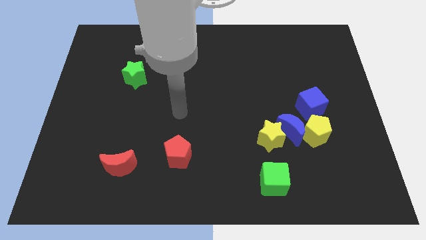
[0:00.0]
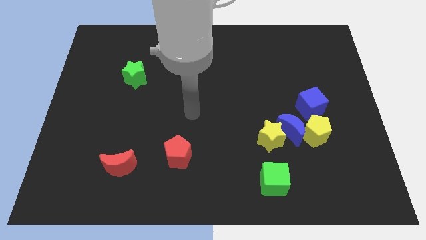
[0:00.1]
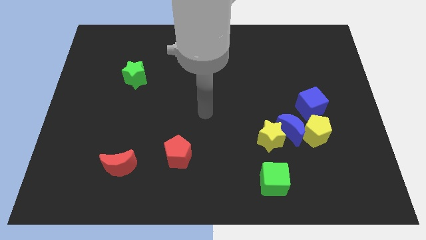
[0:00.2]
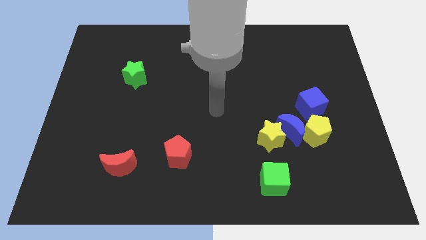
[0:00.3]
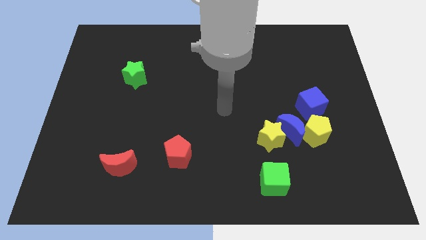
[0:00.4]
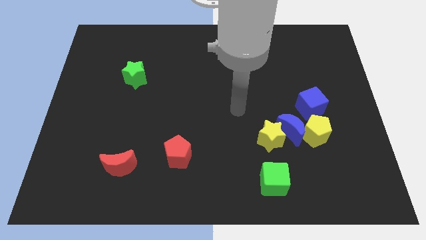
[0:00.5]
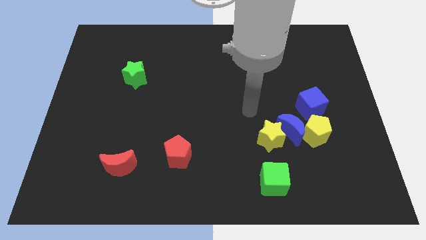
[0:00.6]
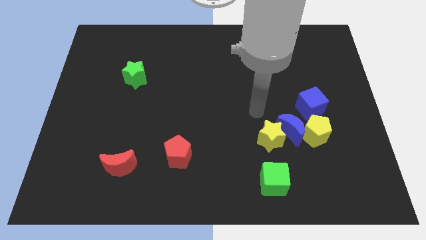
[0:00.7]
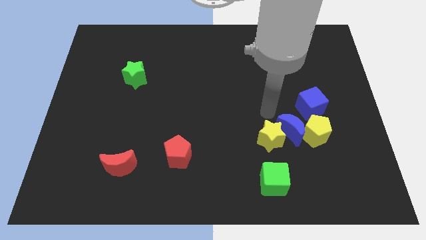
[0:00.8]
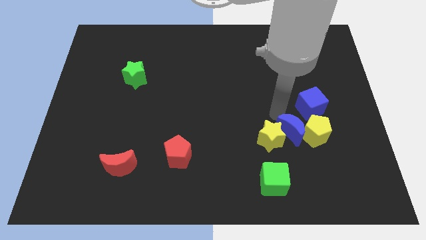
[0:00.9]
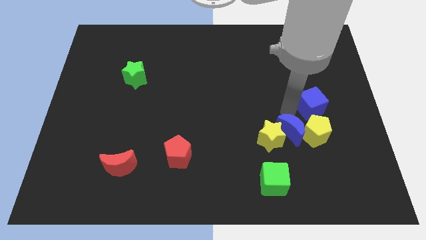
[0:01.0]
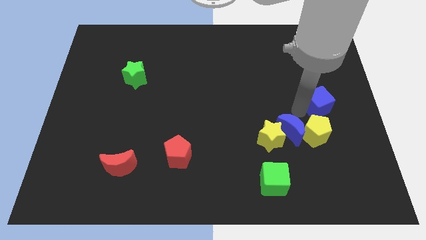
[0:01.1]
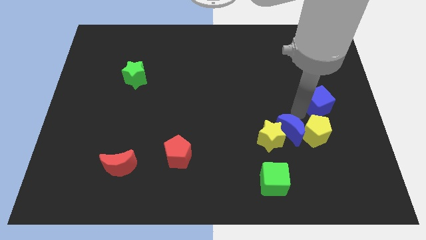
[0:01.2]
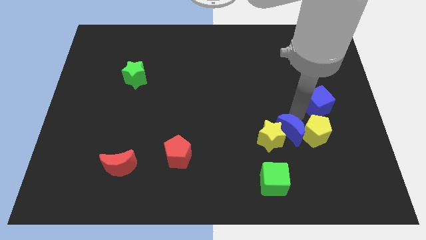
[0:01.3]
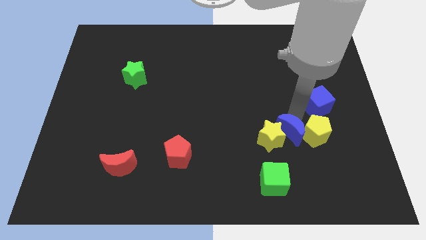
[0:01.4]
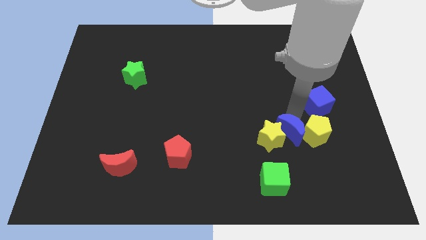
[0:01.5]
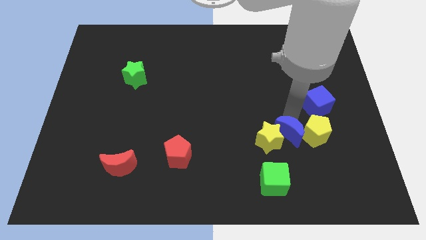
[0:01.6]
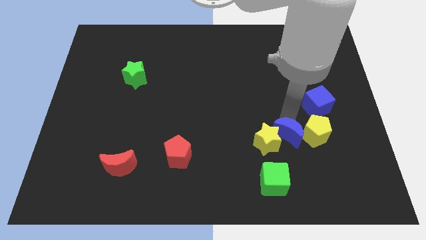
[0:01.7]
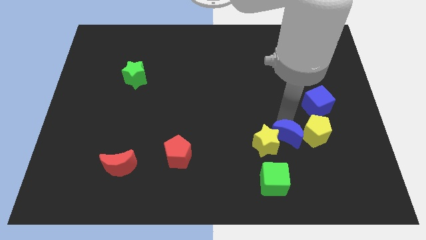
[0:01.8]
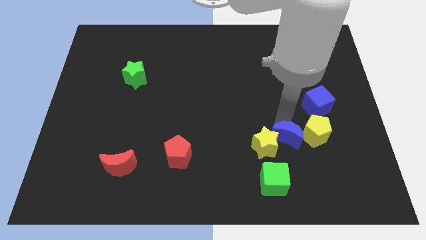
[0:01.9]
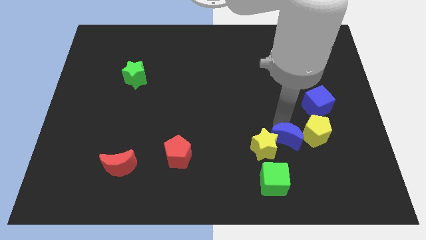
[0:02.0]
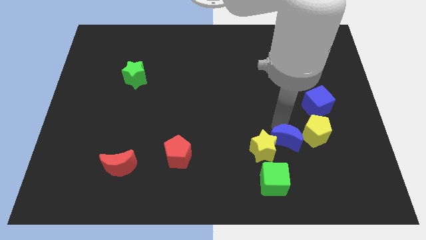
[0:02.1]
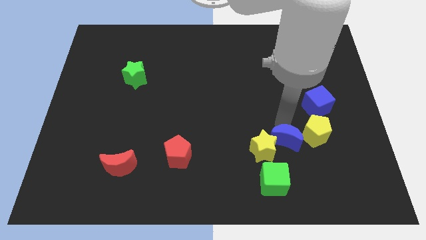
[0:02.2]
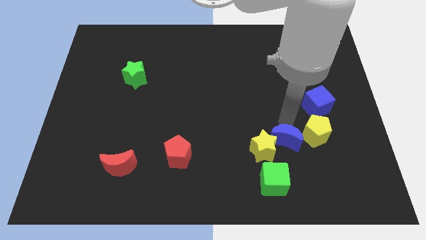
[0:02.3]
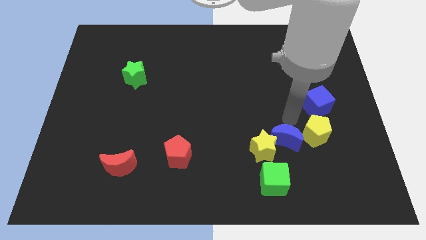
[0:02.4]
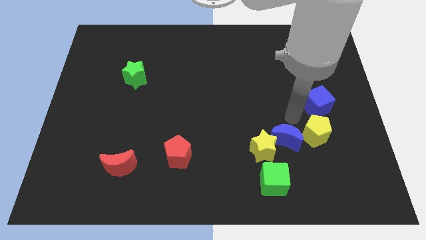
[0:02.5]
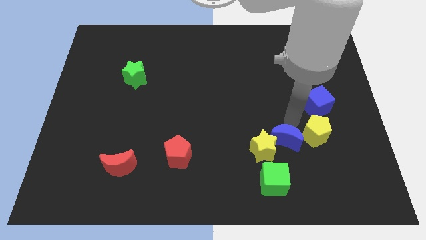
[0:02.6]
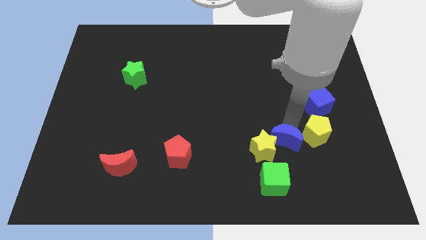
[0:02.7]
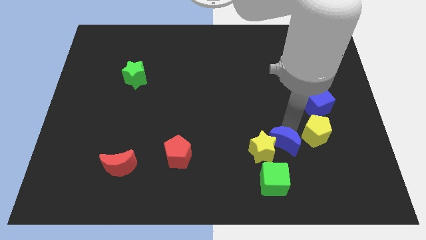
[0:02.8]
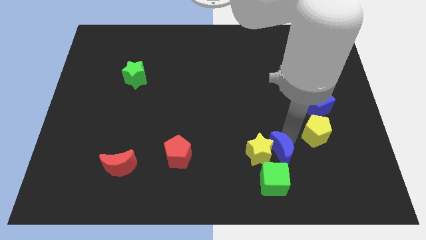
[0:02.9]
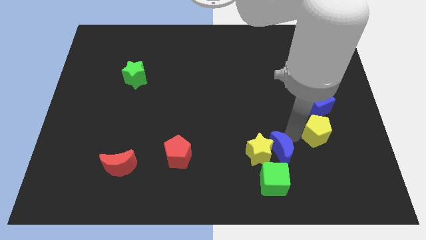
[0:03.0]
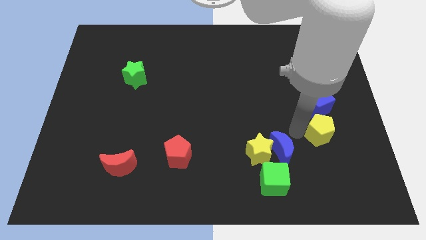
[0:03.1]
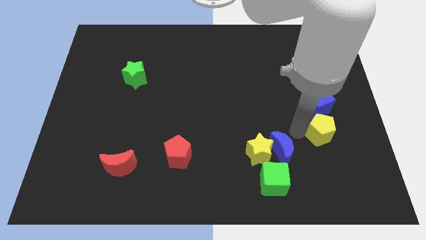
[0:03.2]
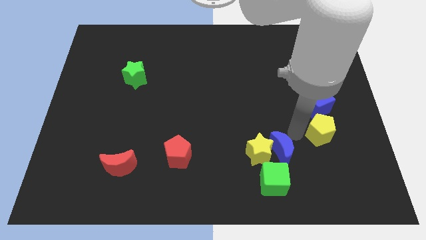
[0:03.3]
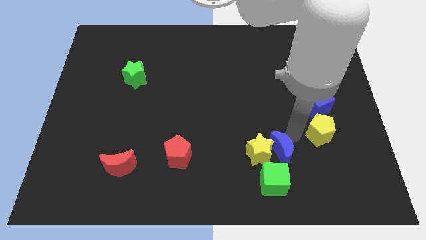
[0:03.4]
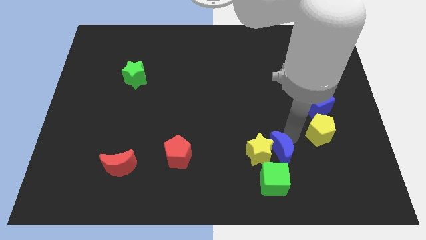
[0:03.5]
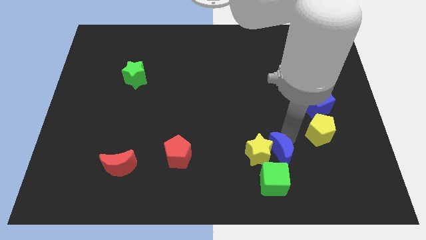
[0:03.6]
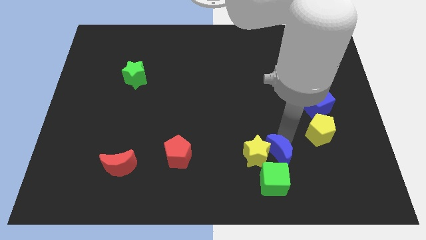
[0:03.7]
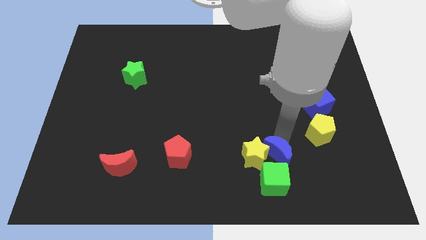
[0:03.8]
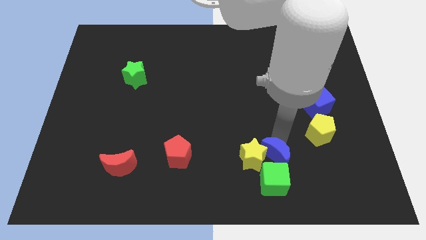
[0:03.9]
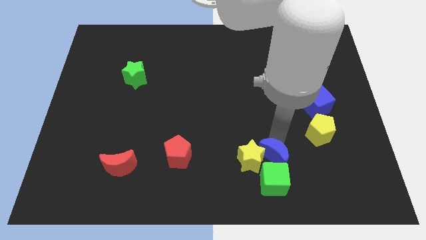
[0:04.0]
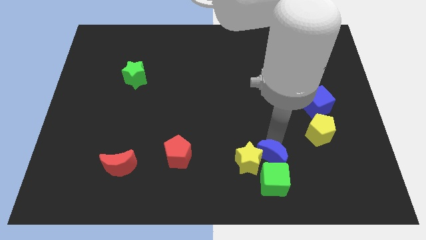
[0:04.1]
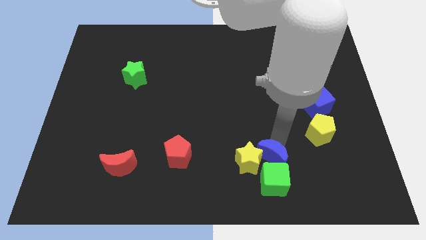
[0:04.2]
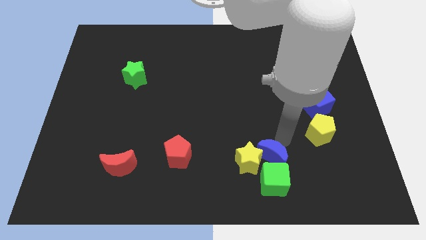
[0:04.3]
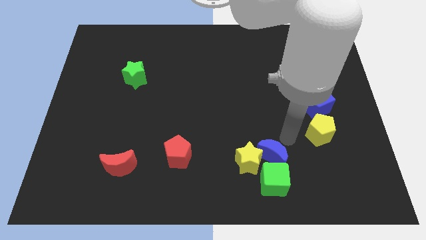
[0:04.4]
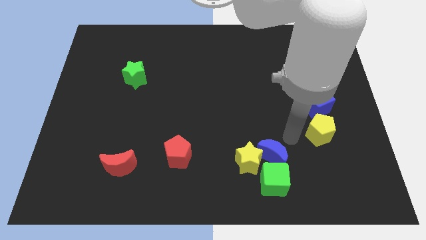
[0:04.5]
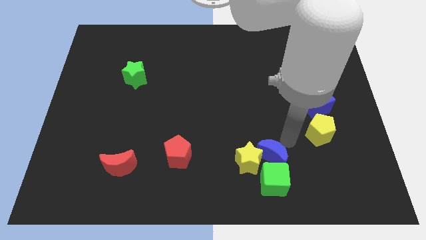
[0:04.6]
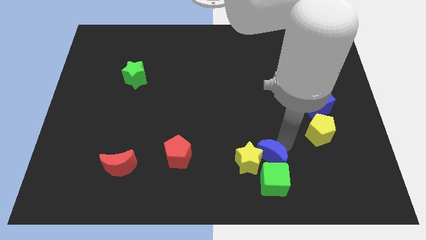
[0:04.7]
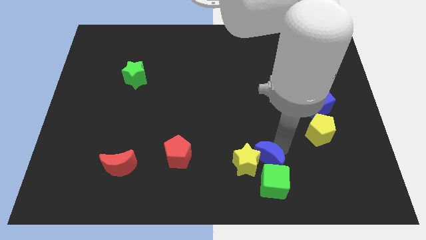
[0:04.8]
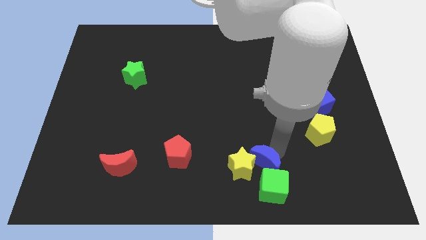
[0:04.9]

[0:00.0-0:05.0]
move the blue moon away from the yellow star, yellow pentagon, and blue cube

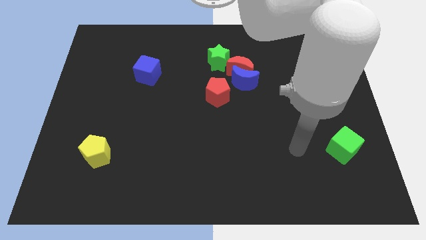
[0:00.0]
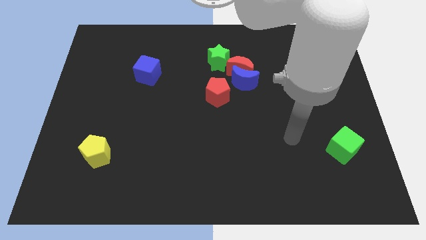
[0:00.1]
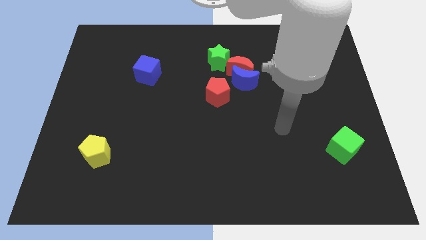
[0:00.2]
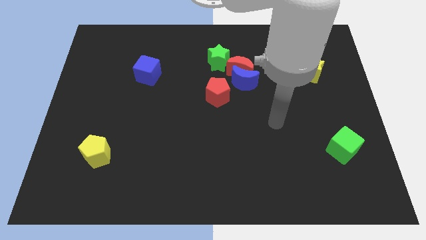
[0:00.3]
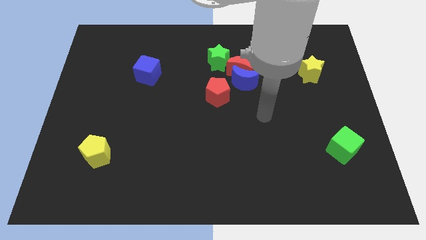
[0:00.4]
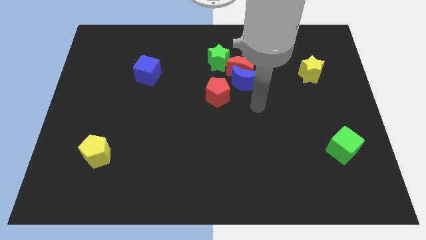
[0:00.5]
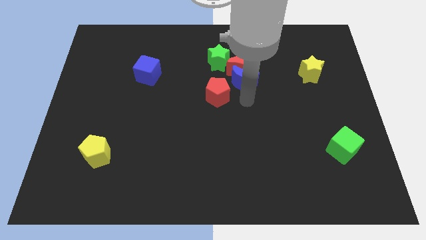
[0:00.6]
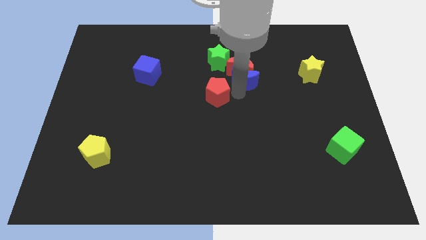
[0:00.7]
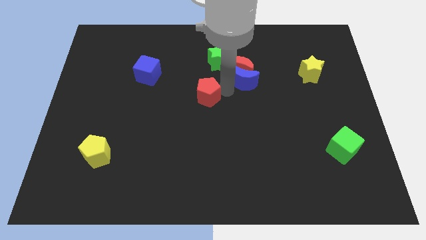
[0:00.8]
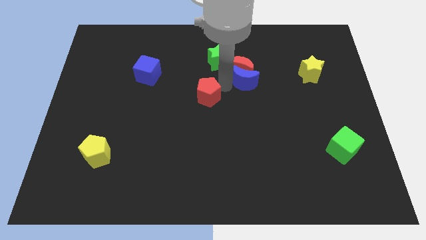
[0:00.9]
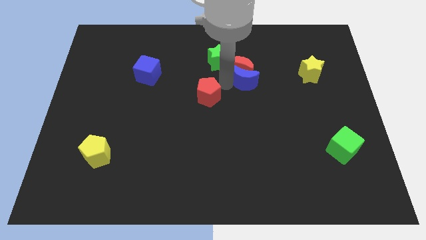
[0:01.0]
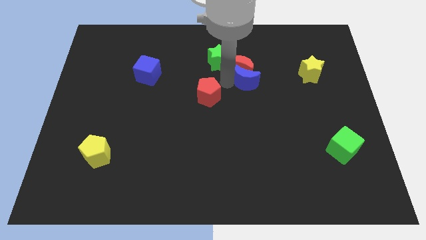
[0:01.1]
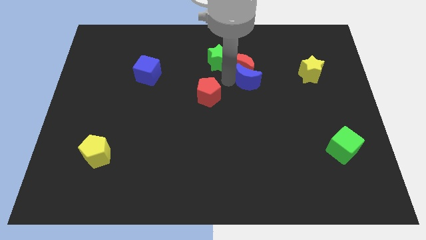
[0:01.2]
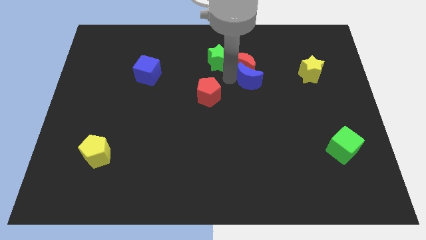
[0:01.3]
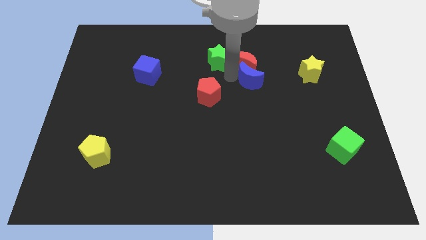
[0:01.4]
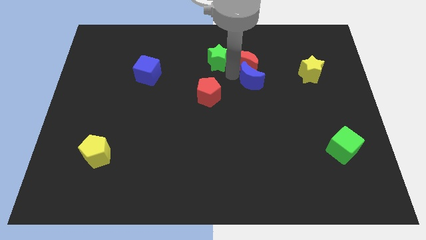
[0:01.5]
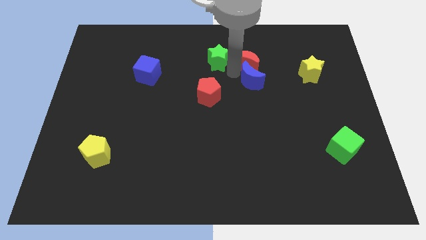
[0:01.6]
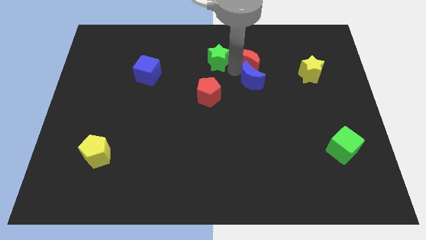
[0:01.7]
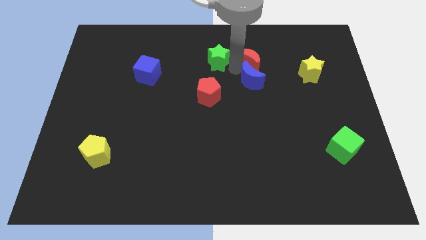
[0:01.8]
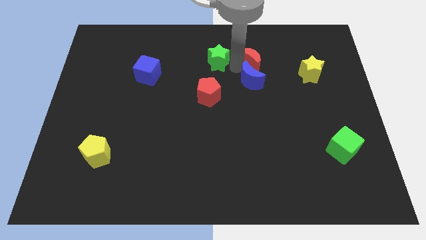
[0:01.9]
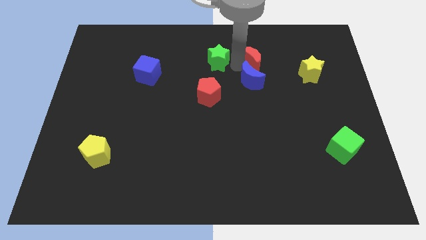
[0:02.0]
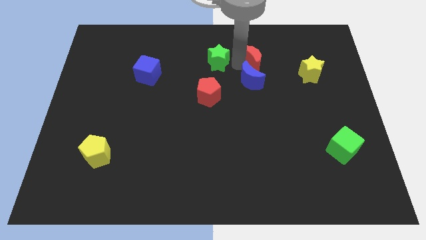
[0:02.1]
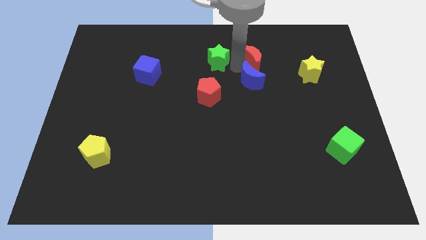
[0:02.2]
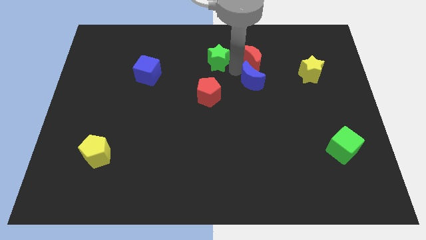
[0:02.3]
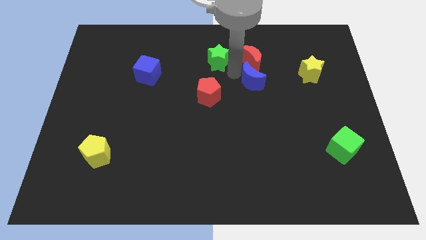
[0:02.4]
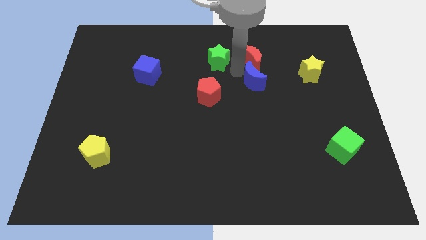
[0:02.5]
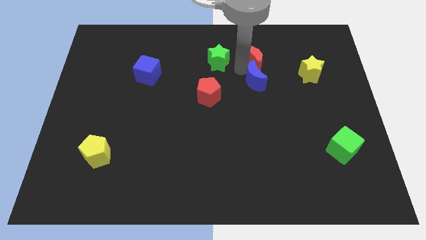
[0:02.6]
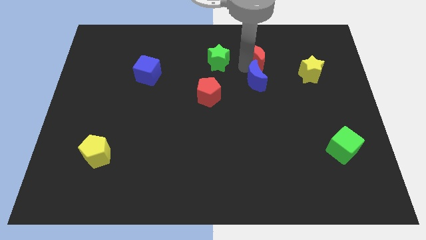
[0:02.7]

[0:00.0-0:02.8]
separate the red moon from the group of blocks

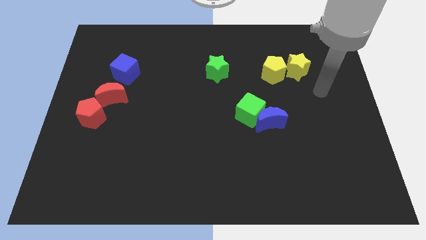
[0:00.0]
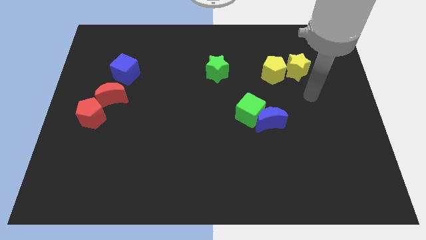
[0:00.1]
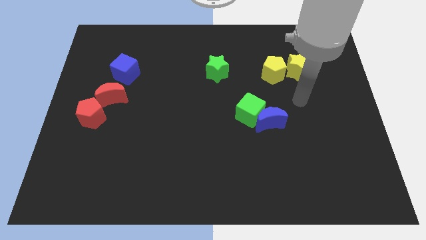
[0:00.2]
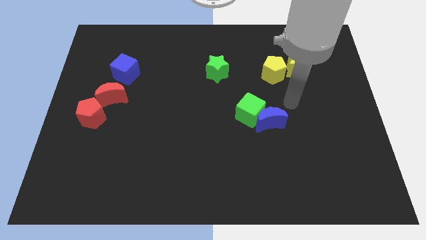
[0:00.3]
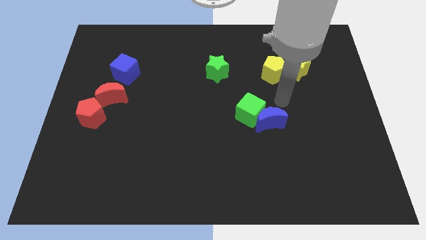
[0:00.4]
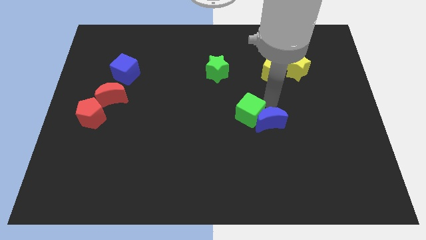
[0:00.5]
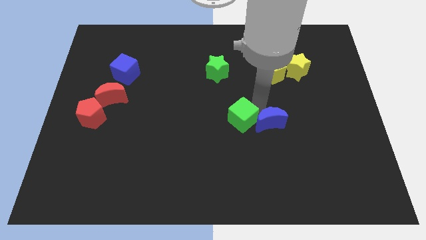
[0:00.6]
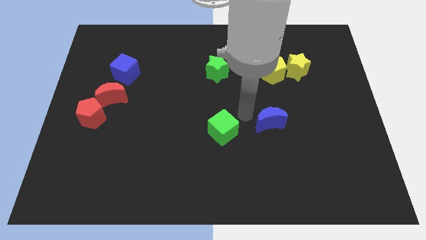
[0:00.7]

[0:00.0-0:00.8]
separate the blue moon from the green cube

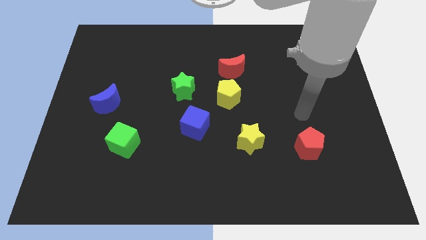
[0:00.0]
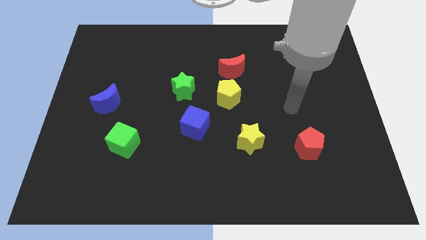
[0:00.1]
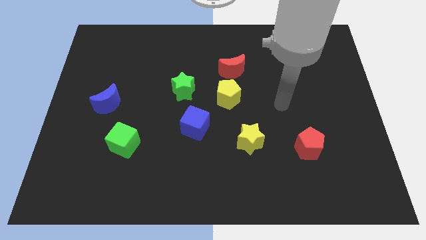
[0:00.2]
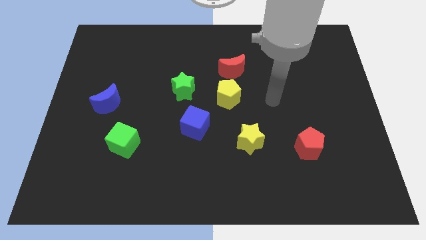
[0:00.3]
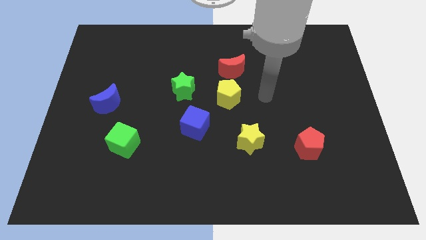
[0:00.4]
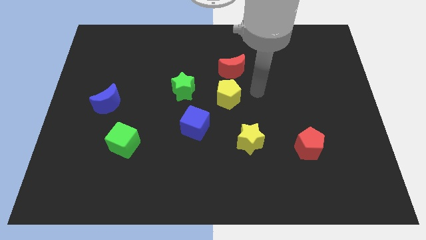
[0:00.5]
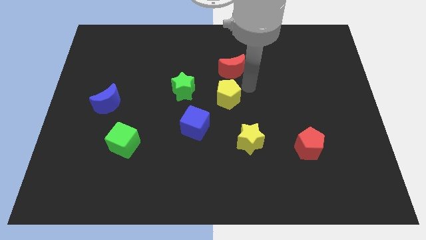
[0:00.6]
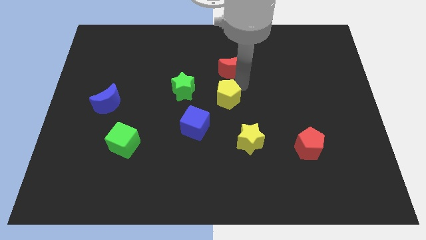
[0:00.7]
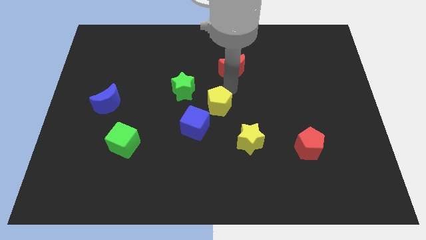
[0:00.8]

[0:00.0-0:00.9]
separate the red moon from the yellow pentagon

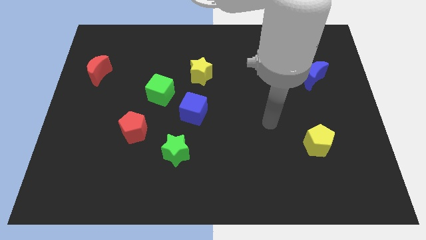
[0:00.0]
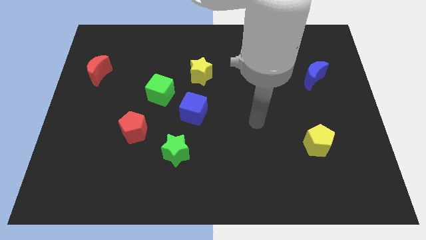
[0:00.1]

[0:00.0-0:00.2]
pull the blue cube apart from the green cube
